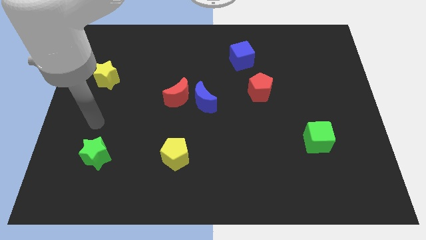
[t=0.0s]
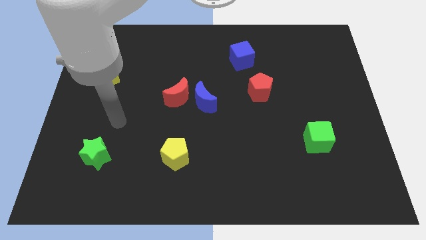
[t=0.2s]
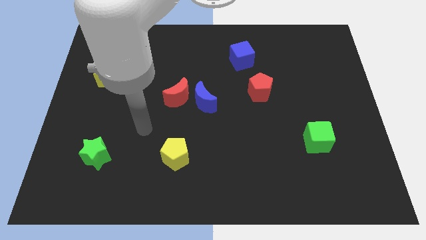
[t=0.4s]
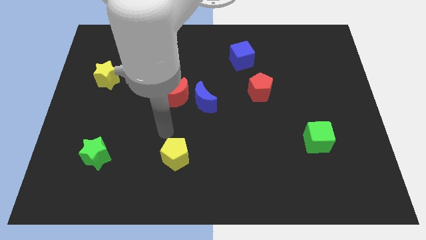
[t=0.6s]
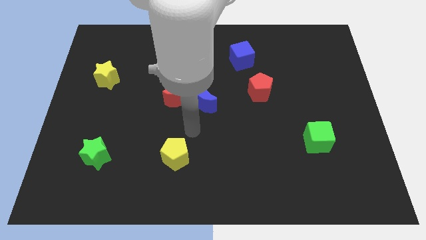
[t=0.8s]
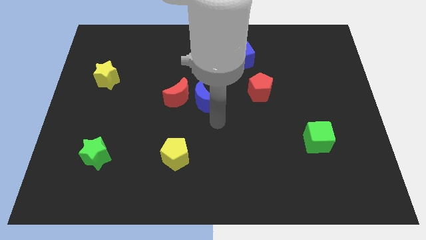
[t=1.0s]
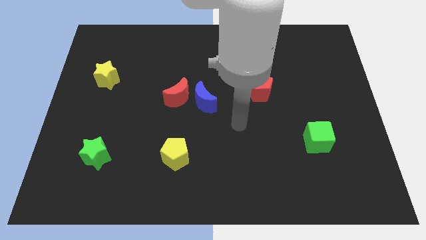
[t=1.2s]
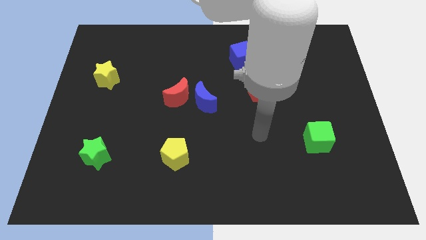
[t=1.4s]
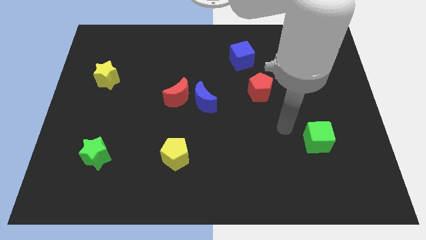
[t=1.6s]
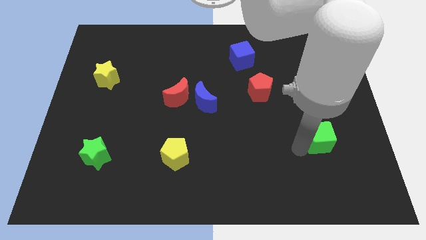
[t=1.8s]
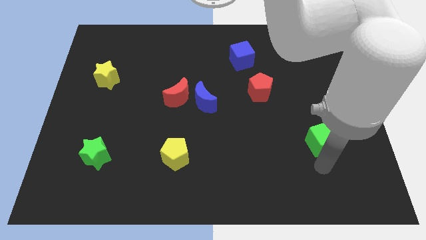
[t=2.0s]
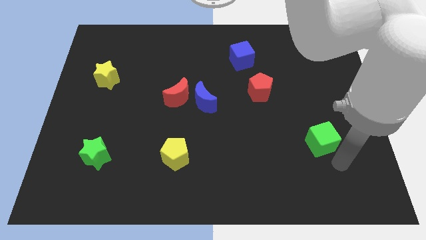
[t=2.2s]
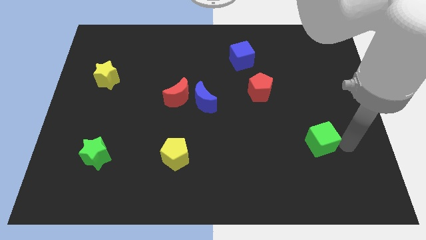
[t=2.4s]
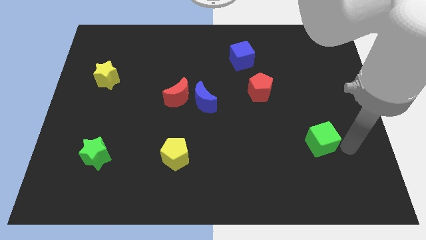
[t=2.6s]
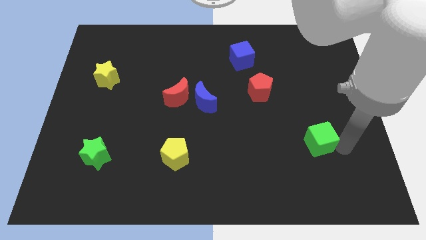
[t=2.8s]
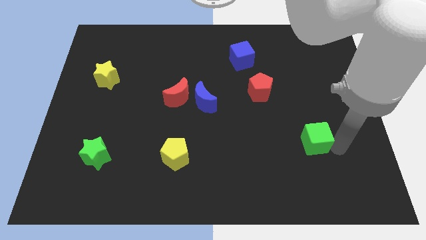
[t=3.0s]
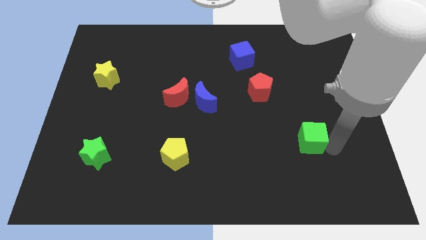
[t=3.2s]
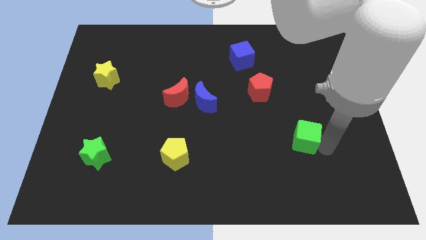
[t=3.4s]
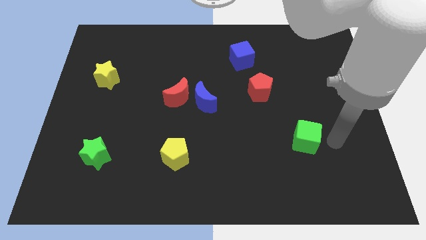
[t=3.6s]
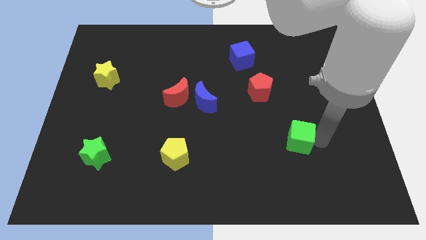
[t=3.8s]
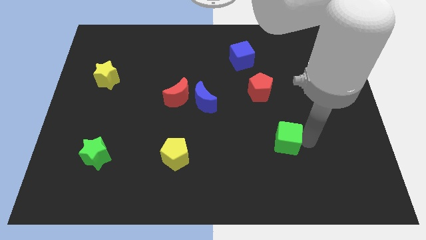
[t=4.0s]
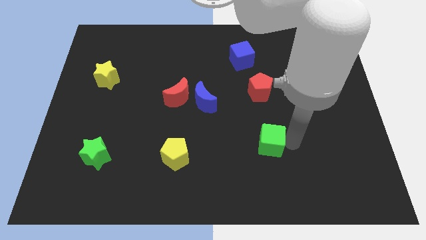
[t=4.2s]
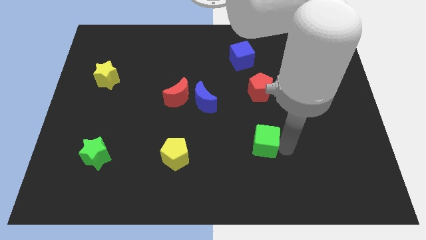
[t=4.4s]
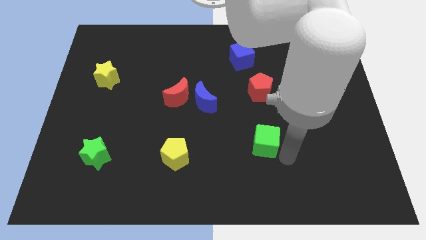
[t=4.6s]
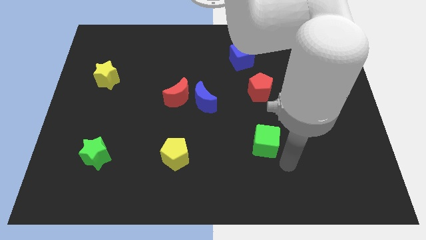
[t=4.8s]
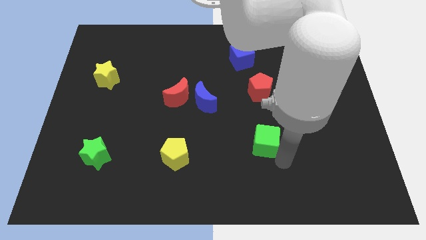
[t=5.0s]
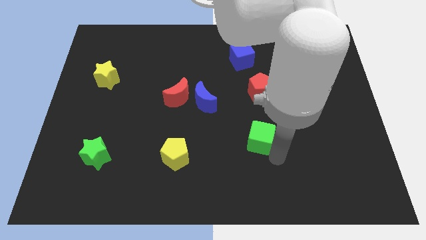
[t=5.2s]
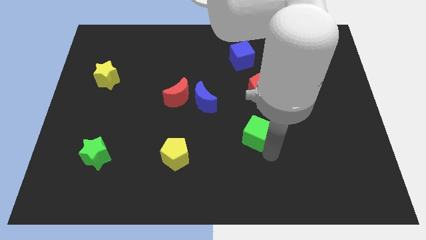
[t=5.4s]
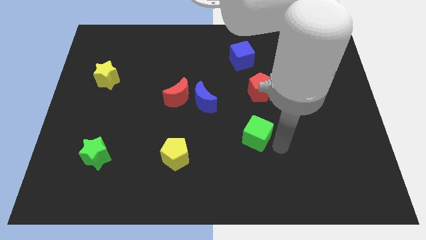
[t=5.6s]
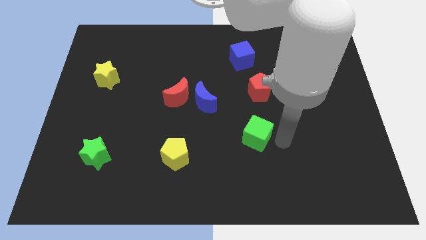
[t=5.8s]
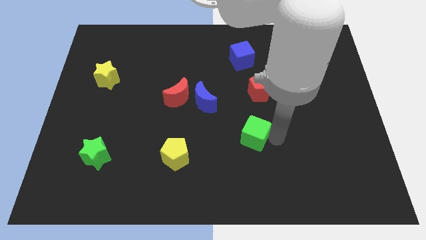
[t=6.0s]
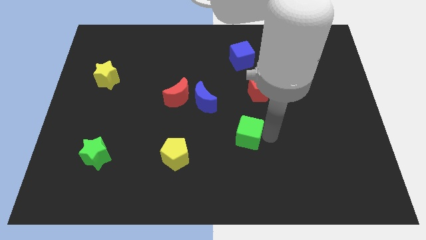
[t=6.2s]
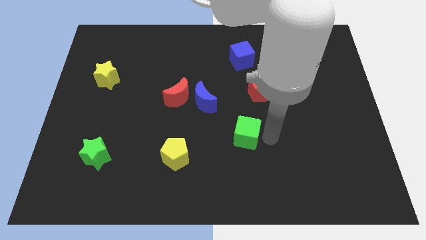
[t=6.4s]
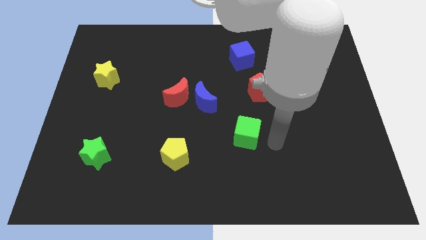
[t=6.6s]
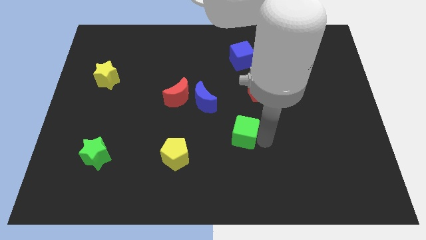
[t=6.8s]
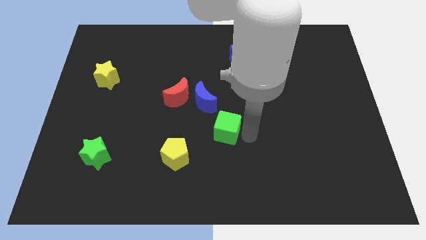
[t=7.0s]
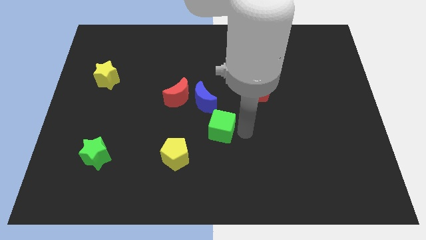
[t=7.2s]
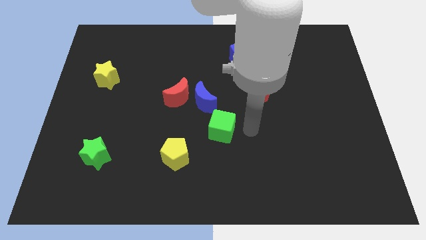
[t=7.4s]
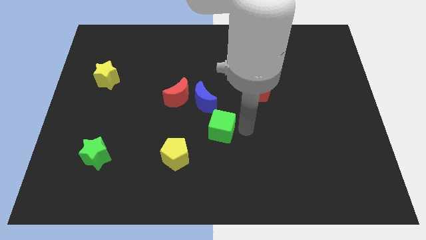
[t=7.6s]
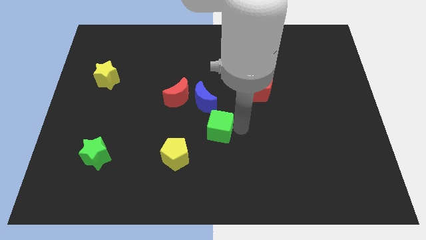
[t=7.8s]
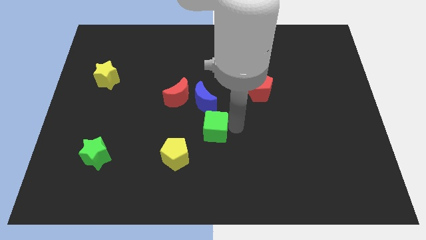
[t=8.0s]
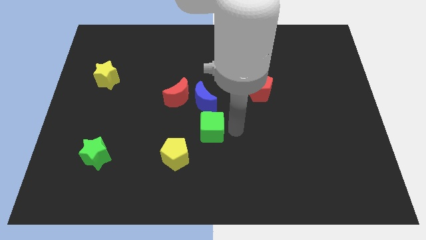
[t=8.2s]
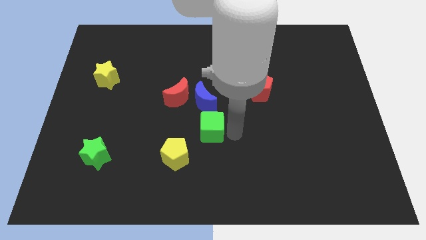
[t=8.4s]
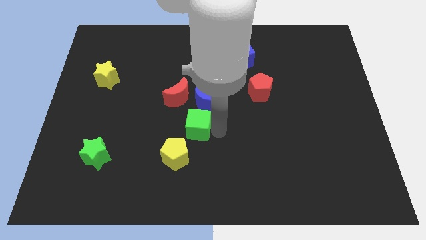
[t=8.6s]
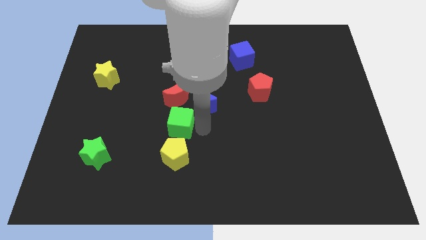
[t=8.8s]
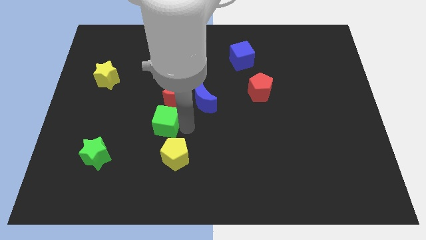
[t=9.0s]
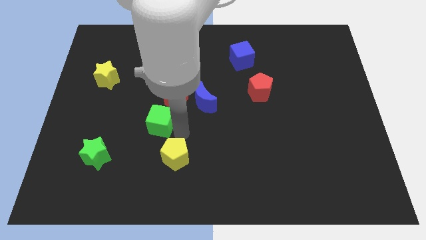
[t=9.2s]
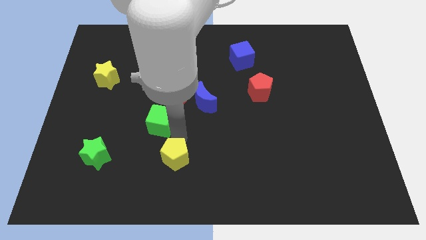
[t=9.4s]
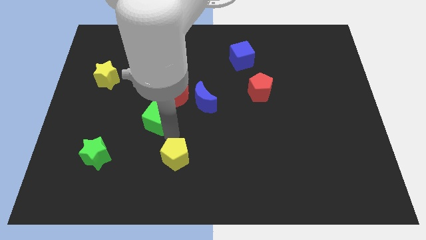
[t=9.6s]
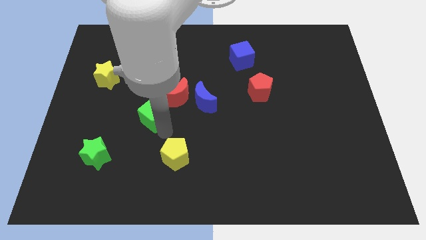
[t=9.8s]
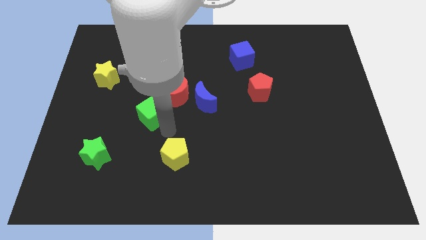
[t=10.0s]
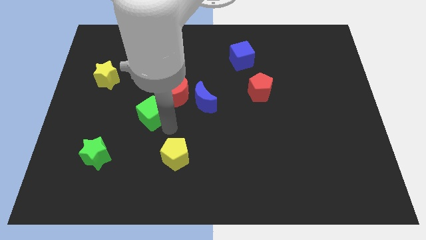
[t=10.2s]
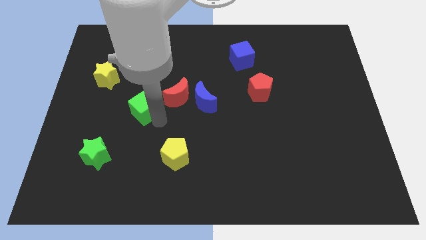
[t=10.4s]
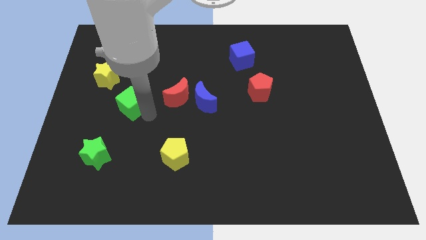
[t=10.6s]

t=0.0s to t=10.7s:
move the green cube to the bottom right of the yellow star

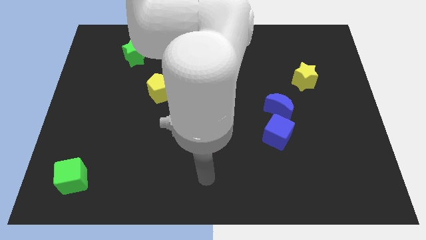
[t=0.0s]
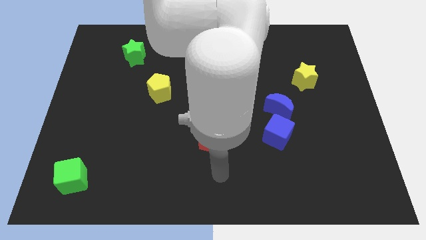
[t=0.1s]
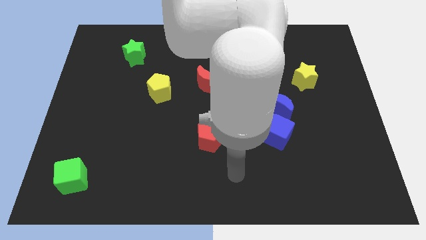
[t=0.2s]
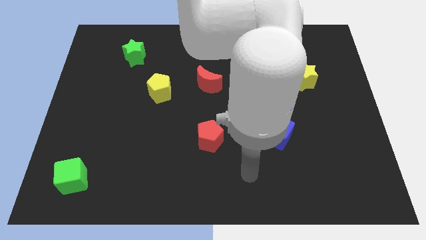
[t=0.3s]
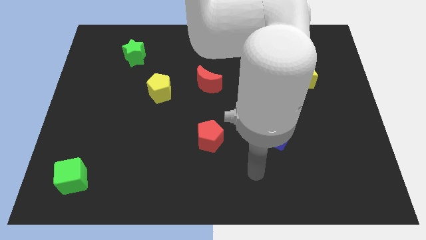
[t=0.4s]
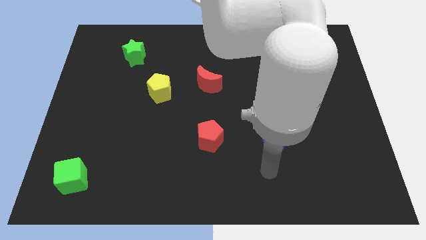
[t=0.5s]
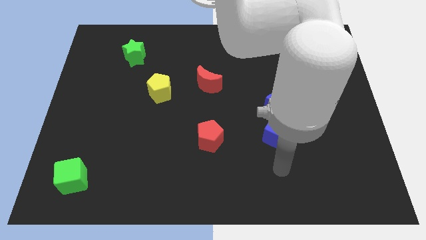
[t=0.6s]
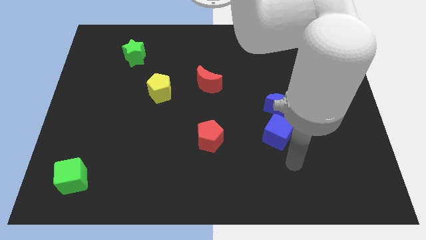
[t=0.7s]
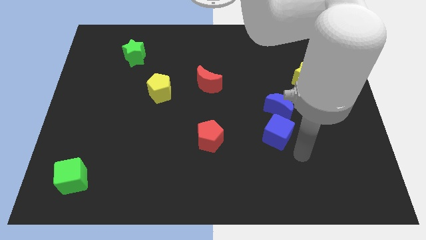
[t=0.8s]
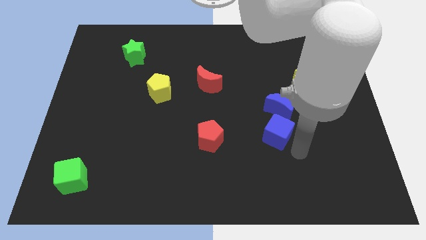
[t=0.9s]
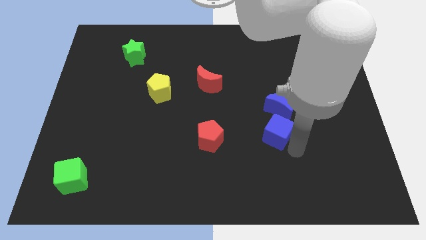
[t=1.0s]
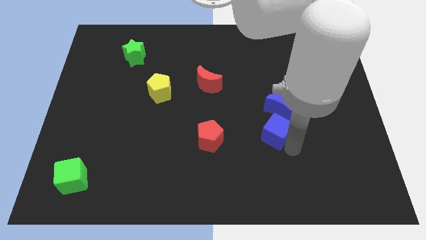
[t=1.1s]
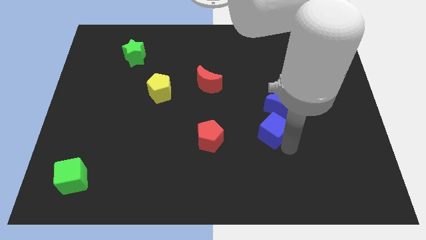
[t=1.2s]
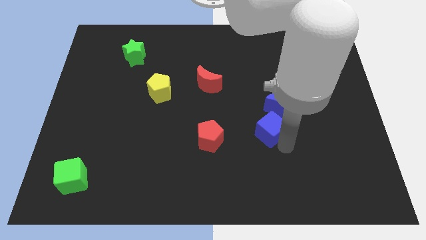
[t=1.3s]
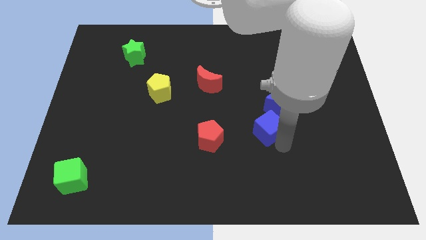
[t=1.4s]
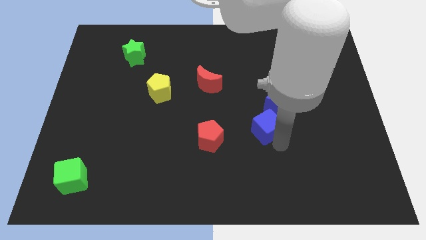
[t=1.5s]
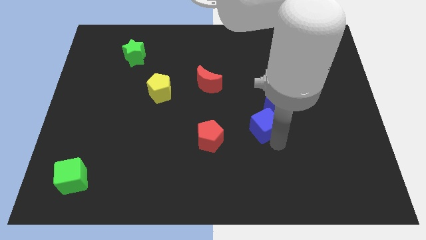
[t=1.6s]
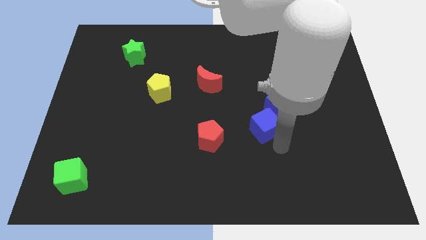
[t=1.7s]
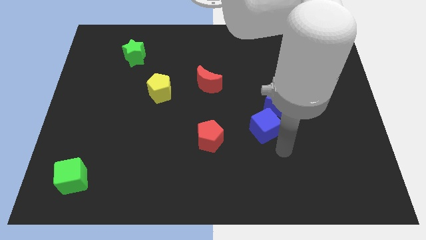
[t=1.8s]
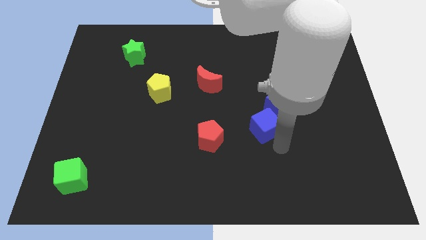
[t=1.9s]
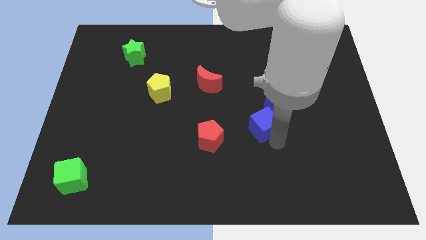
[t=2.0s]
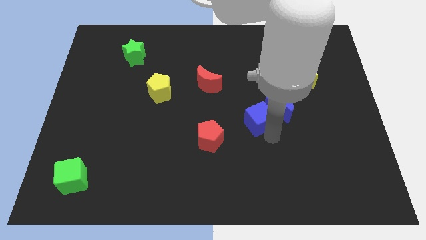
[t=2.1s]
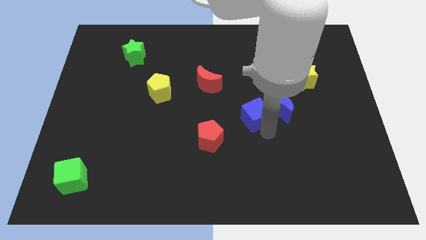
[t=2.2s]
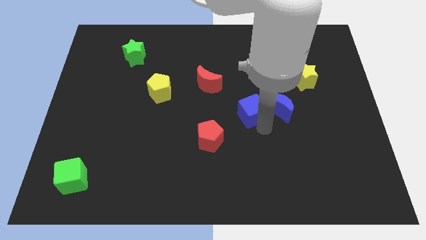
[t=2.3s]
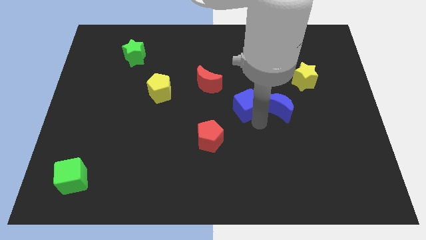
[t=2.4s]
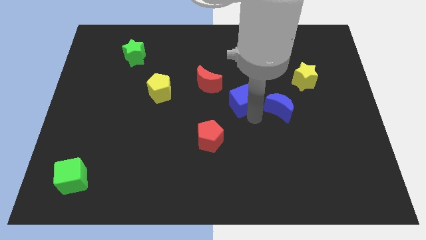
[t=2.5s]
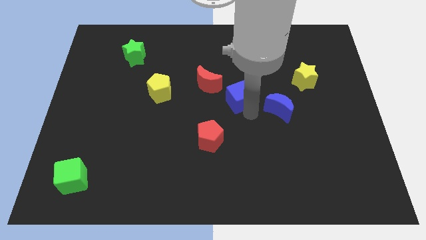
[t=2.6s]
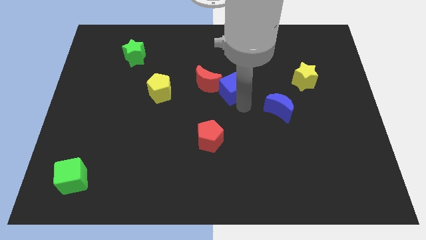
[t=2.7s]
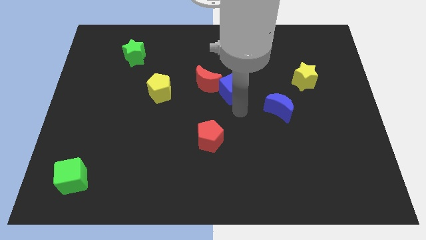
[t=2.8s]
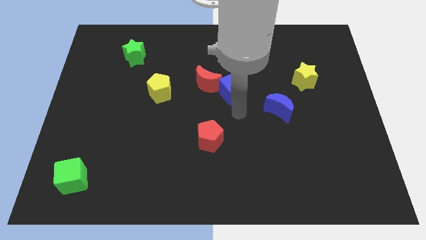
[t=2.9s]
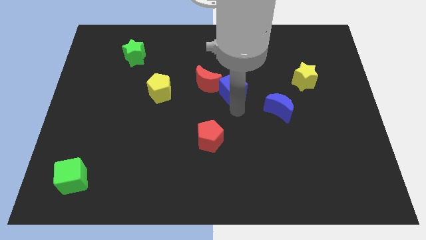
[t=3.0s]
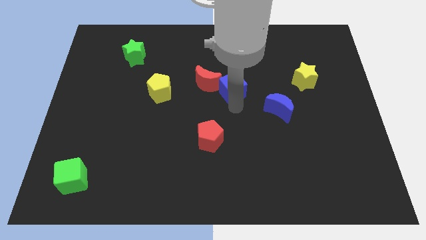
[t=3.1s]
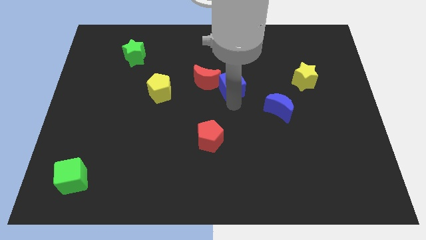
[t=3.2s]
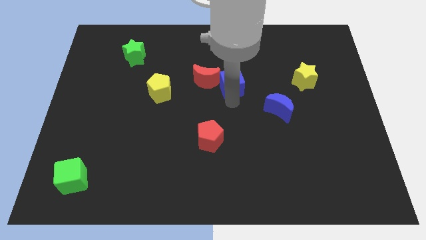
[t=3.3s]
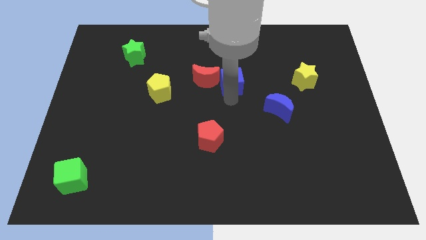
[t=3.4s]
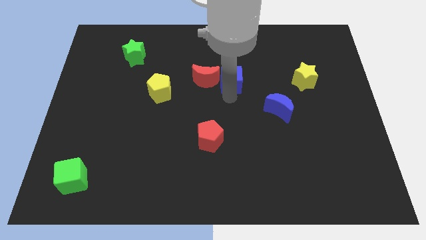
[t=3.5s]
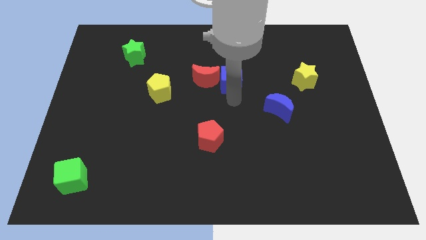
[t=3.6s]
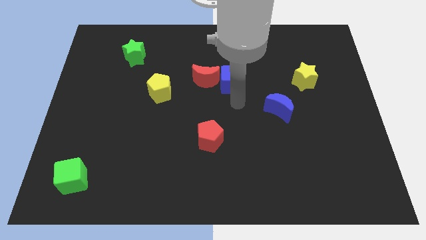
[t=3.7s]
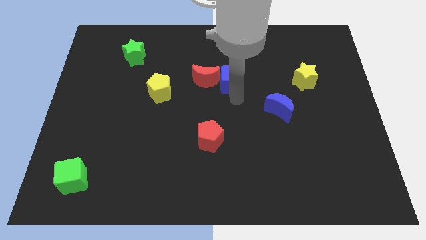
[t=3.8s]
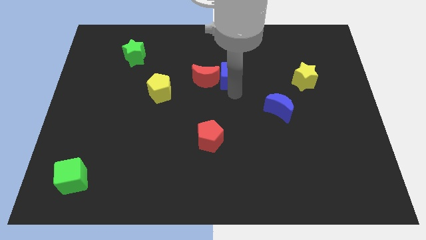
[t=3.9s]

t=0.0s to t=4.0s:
push the blue cube diagonally up and to the right of the red moon
